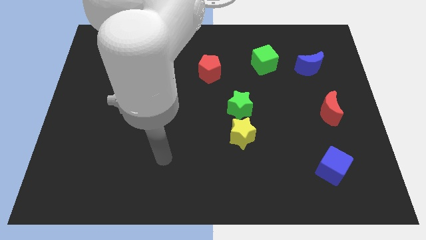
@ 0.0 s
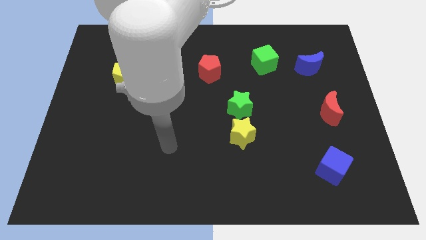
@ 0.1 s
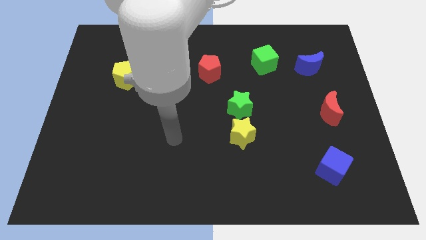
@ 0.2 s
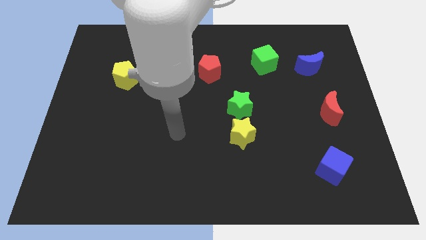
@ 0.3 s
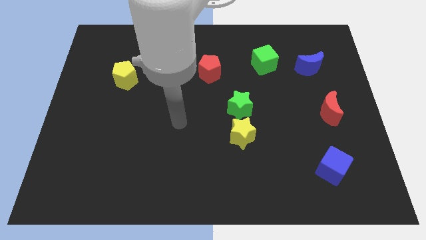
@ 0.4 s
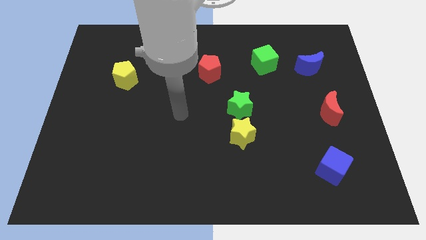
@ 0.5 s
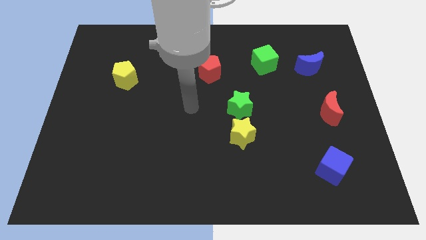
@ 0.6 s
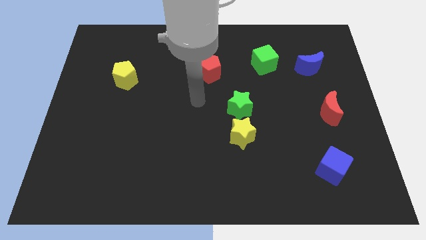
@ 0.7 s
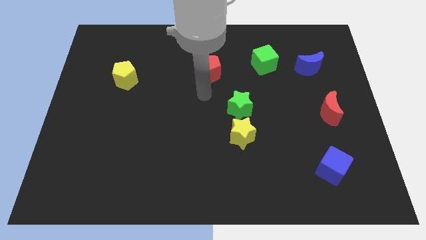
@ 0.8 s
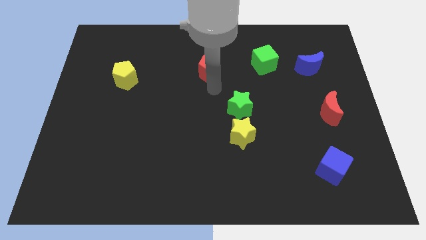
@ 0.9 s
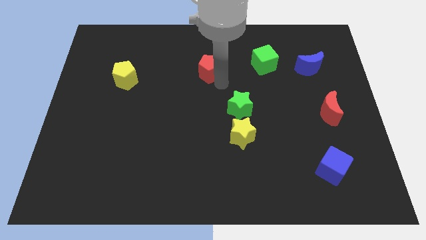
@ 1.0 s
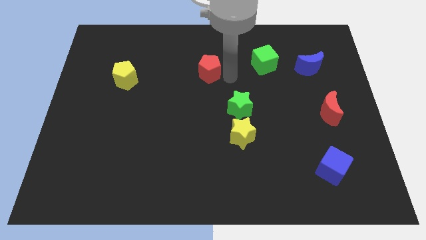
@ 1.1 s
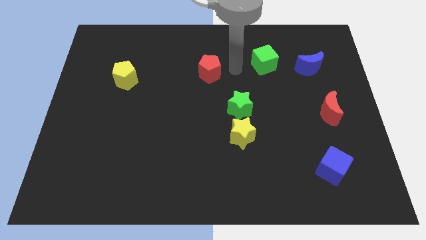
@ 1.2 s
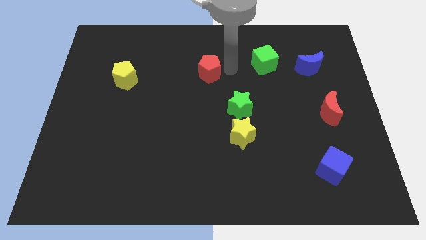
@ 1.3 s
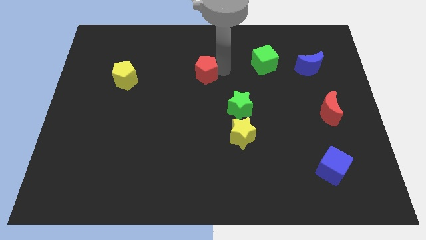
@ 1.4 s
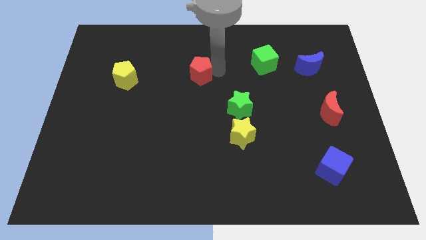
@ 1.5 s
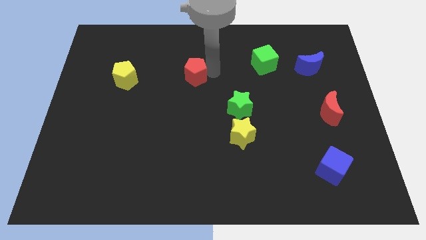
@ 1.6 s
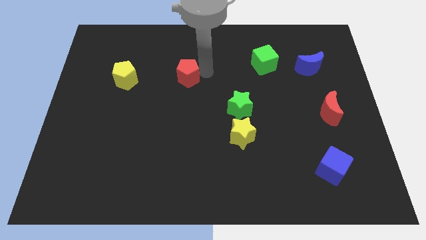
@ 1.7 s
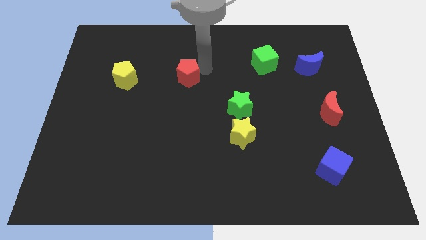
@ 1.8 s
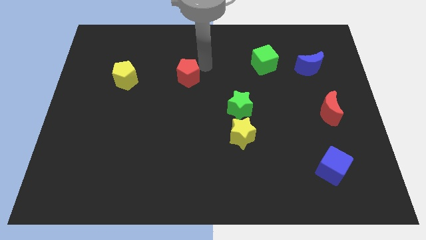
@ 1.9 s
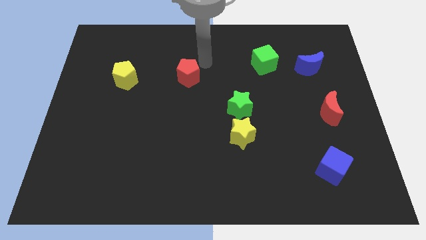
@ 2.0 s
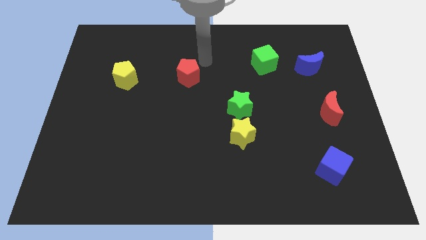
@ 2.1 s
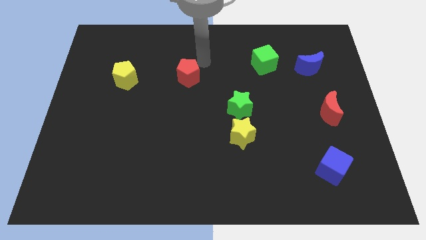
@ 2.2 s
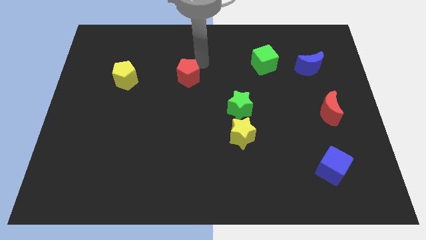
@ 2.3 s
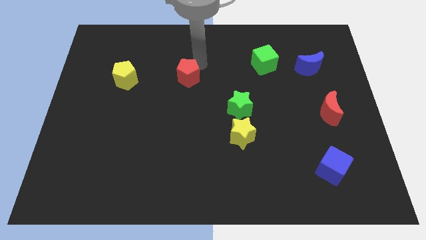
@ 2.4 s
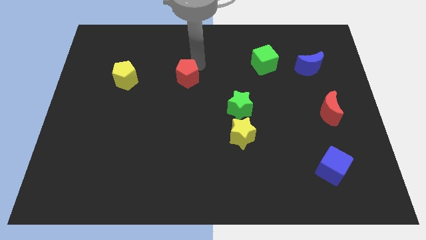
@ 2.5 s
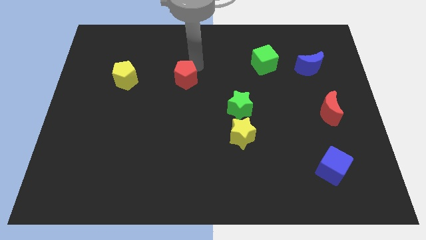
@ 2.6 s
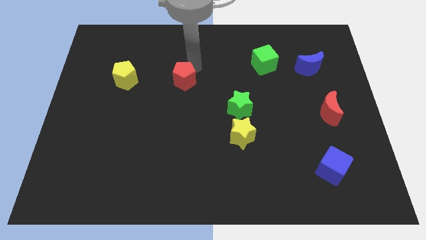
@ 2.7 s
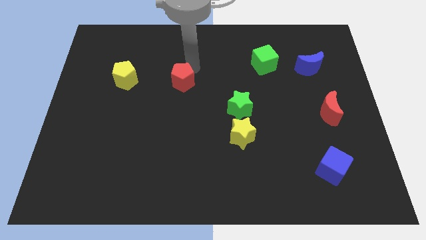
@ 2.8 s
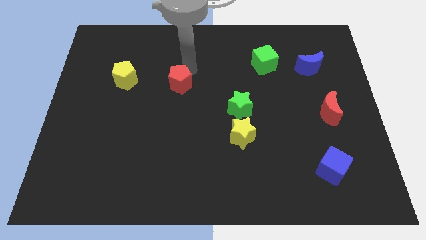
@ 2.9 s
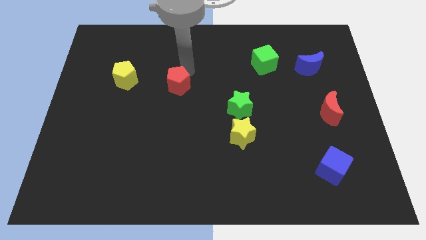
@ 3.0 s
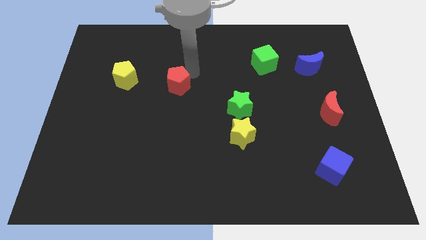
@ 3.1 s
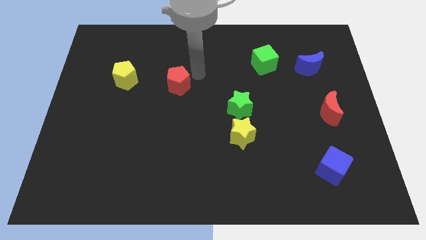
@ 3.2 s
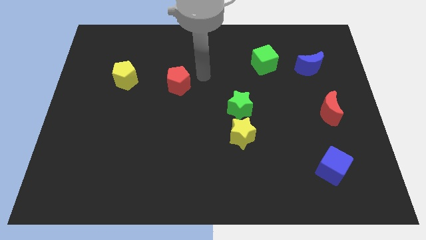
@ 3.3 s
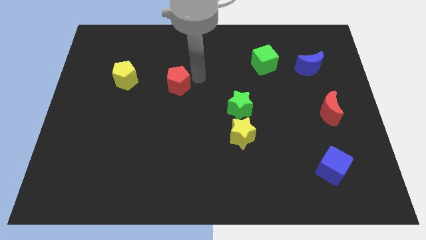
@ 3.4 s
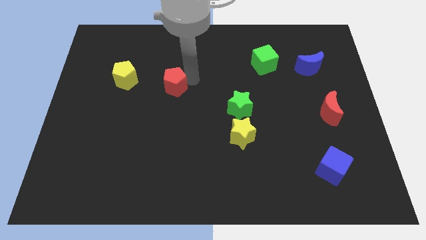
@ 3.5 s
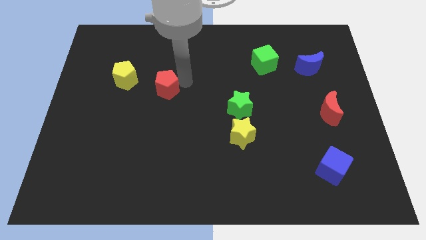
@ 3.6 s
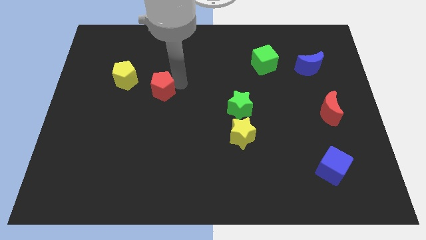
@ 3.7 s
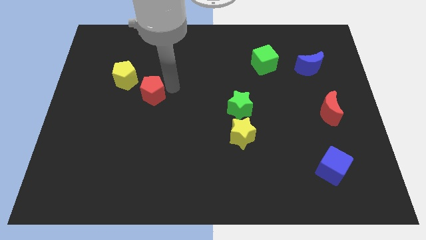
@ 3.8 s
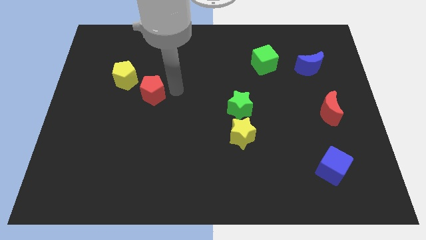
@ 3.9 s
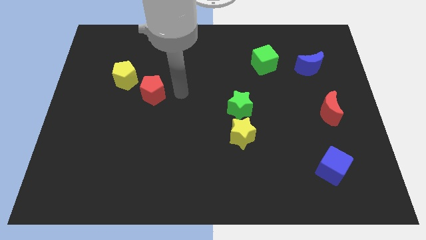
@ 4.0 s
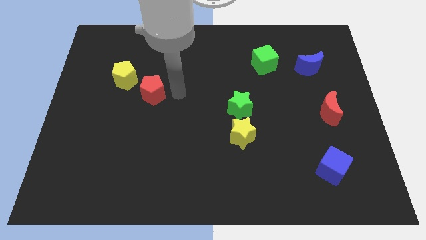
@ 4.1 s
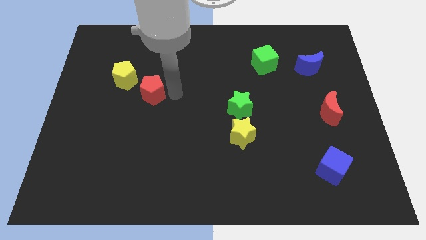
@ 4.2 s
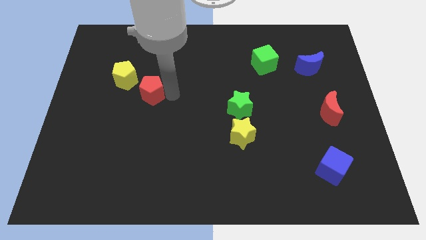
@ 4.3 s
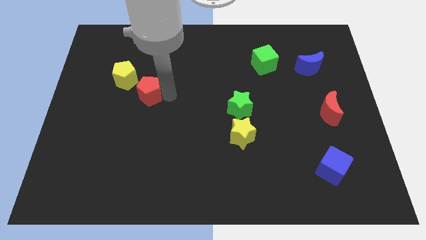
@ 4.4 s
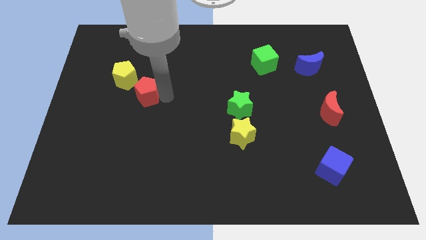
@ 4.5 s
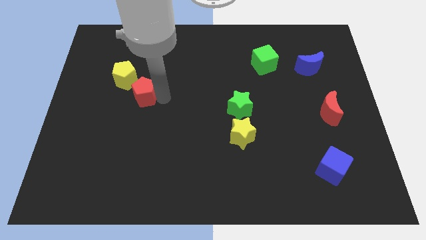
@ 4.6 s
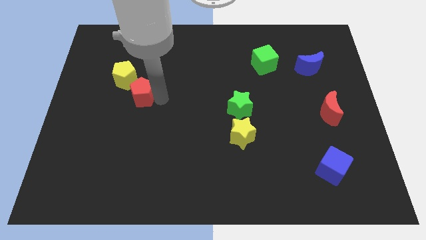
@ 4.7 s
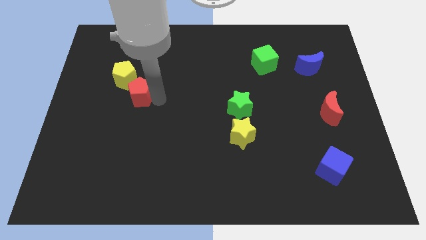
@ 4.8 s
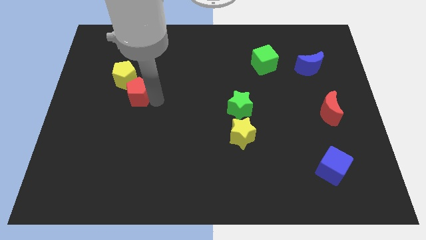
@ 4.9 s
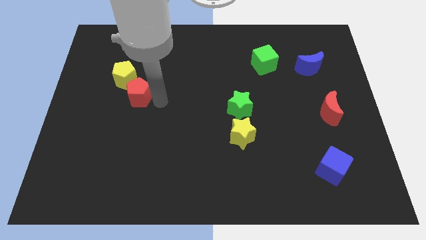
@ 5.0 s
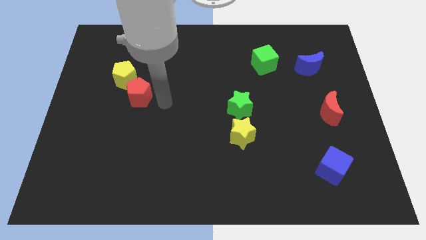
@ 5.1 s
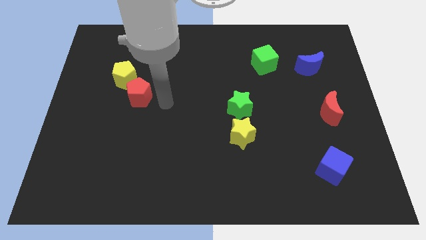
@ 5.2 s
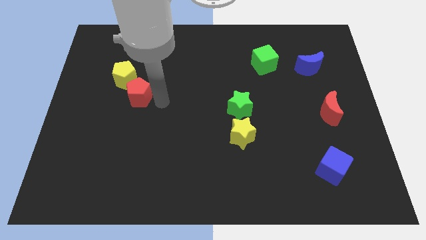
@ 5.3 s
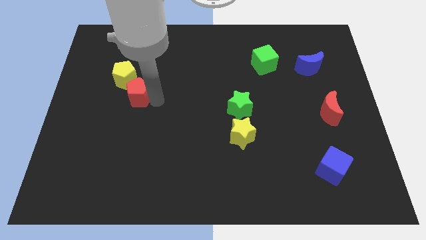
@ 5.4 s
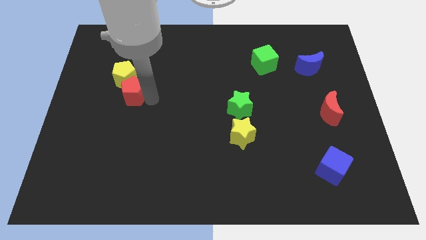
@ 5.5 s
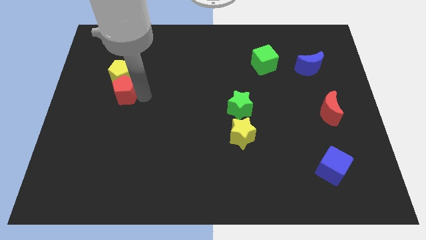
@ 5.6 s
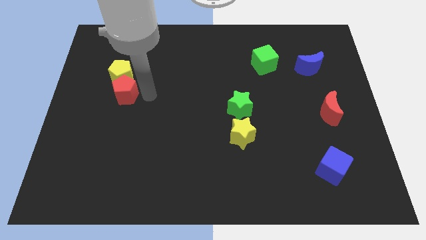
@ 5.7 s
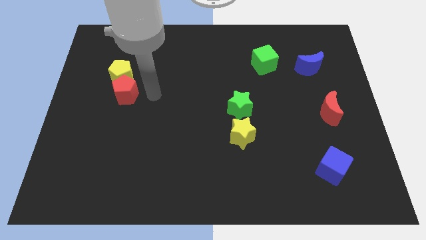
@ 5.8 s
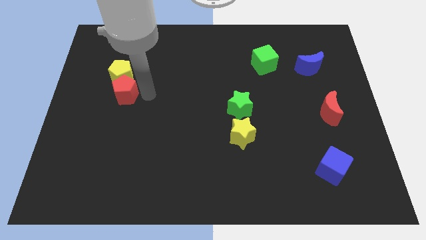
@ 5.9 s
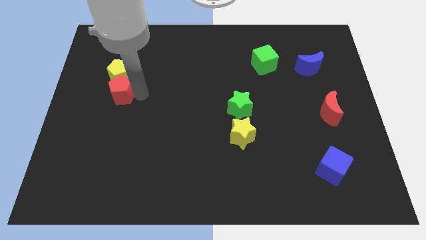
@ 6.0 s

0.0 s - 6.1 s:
put the red pentagon diagonally down and to the left of the yellow pentagon

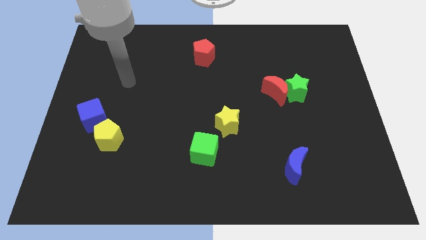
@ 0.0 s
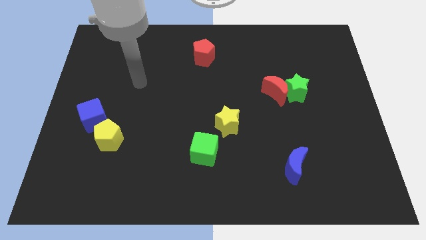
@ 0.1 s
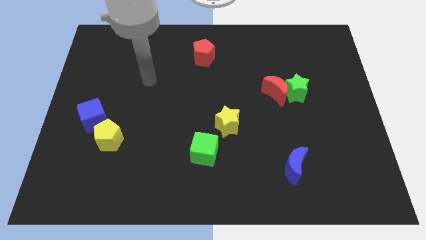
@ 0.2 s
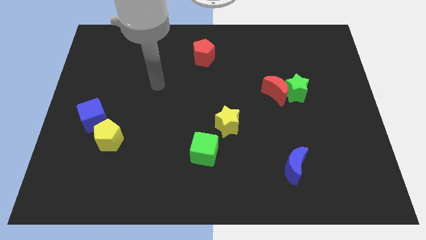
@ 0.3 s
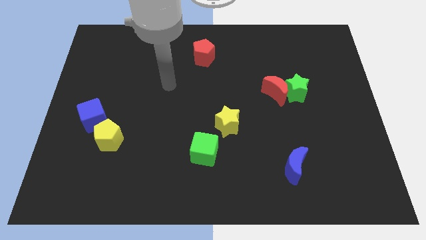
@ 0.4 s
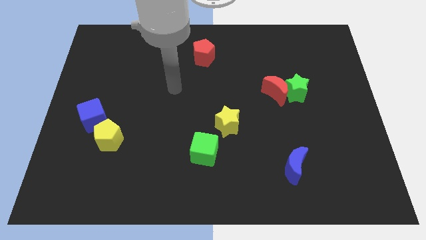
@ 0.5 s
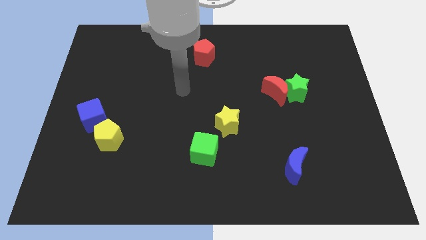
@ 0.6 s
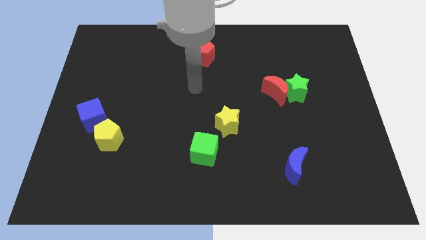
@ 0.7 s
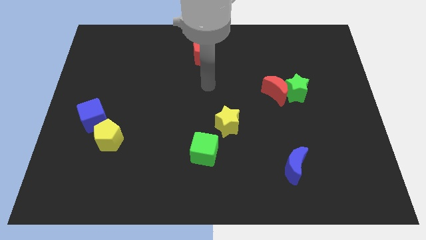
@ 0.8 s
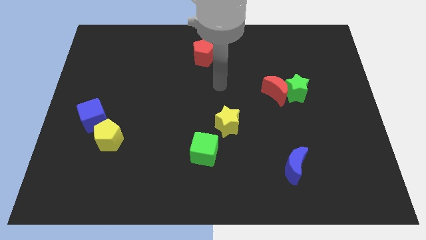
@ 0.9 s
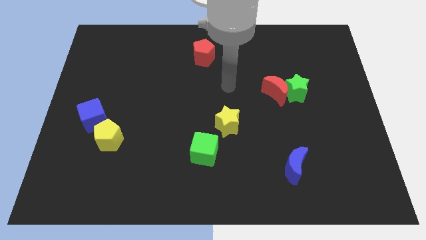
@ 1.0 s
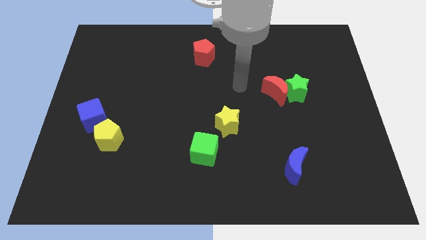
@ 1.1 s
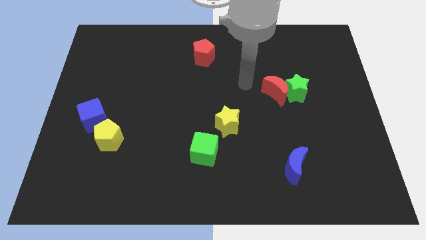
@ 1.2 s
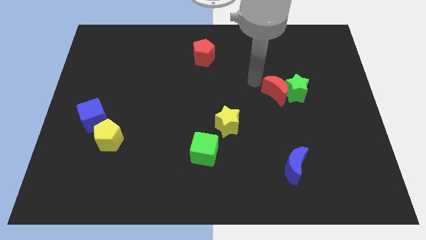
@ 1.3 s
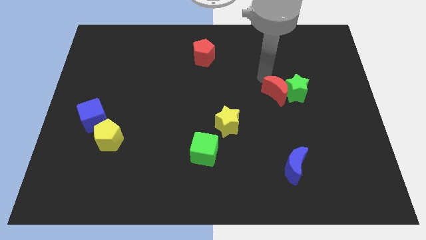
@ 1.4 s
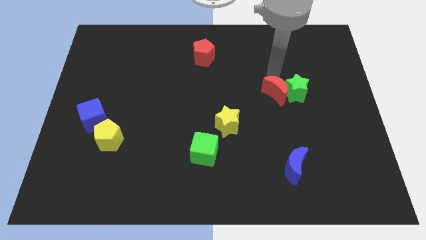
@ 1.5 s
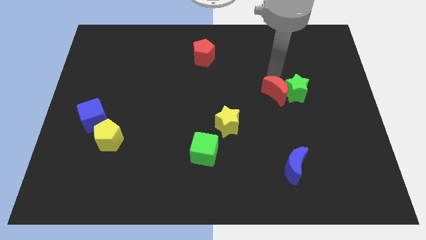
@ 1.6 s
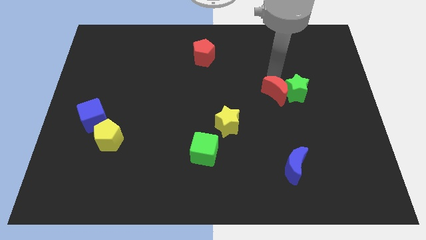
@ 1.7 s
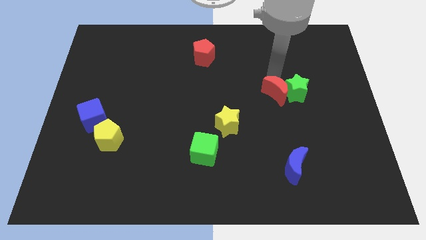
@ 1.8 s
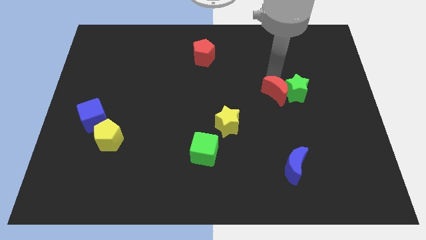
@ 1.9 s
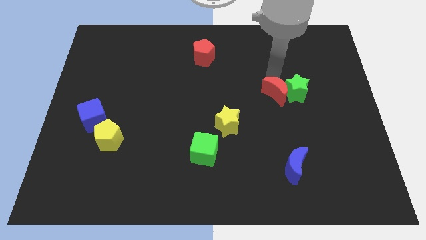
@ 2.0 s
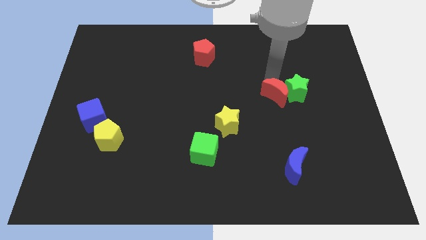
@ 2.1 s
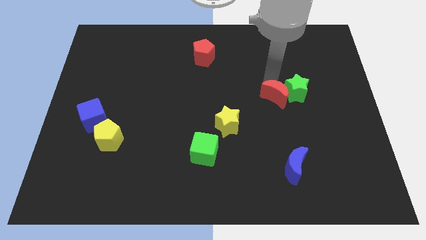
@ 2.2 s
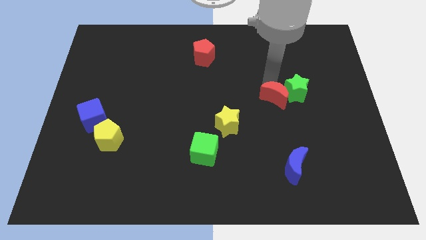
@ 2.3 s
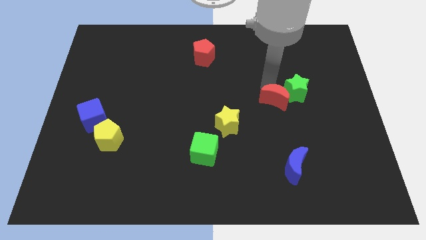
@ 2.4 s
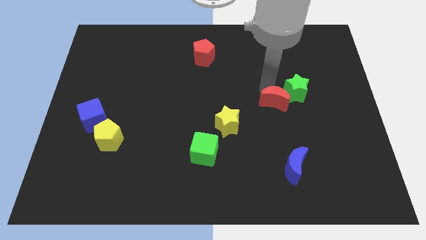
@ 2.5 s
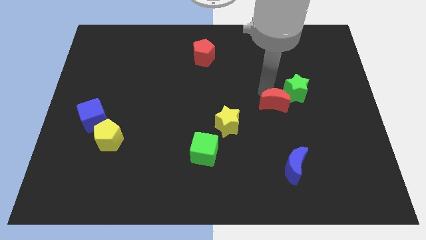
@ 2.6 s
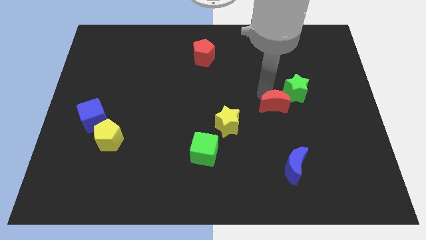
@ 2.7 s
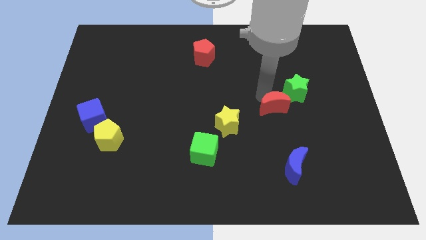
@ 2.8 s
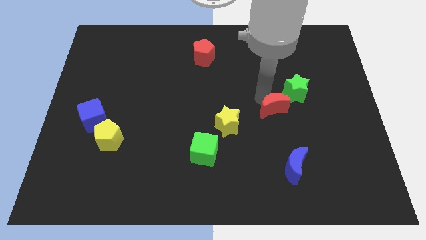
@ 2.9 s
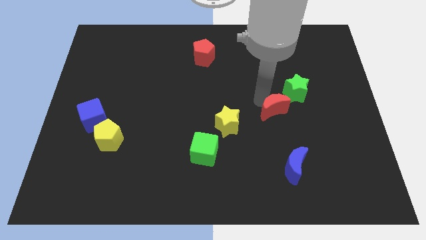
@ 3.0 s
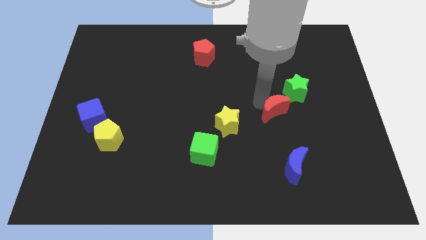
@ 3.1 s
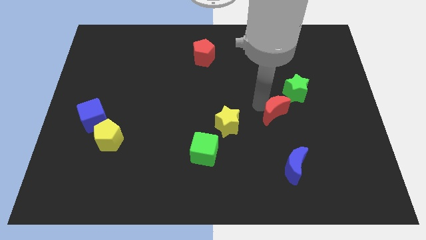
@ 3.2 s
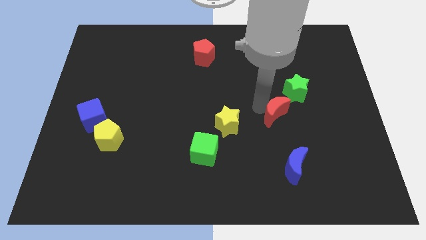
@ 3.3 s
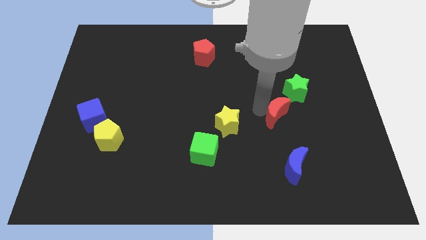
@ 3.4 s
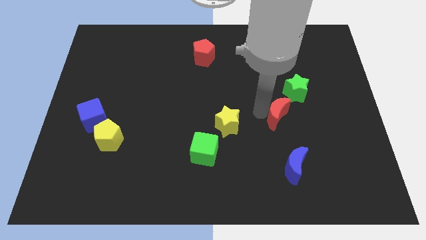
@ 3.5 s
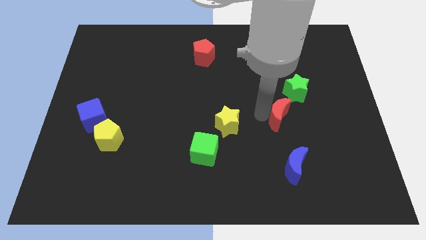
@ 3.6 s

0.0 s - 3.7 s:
move the red moon to the bottom of the green star
